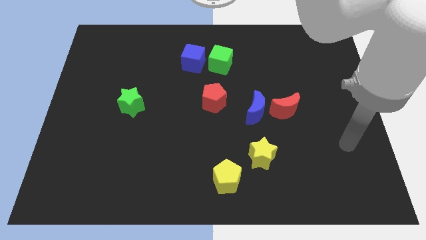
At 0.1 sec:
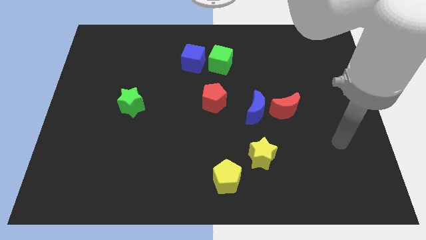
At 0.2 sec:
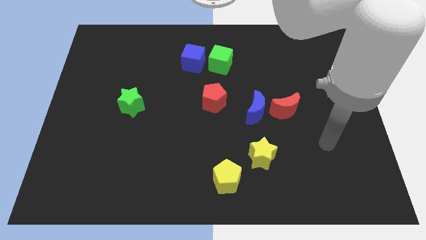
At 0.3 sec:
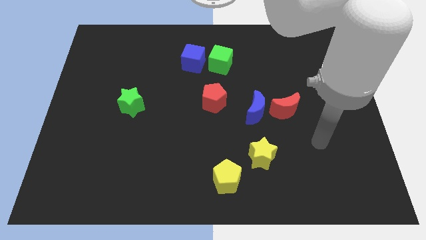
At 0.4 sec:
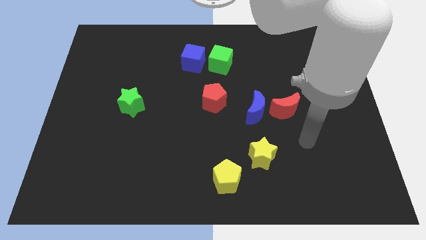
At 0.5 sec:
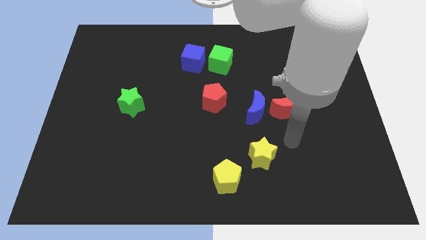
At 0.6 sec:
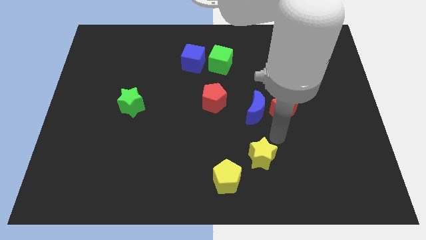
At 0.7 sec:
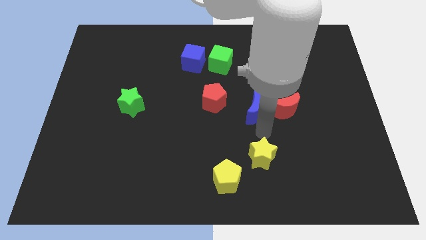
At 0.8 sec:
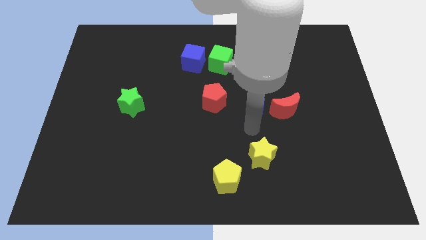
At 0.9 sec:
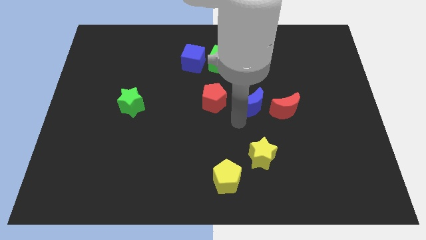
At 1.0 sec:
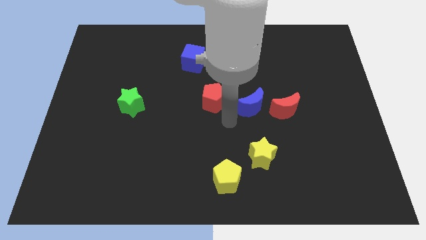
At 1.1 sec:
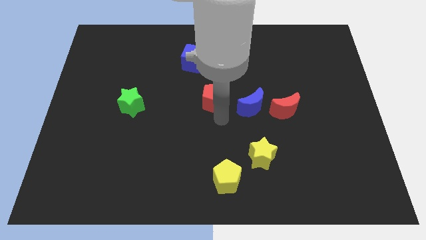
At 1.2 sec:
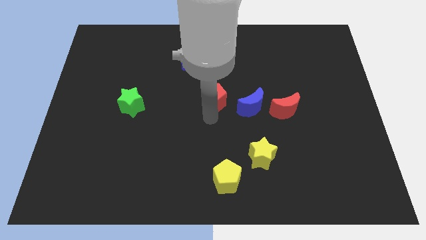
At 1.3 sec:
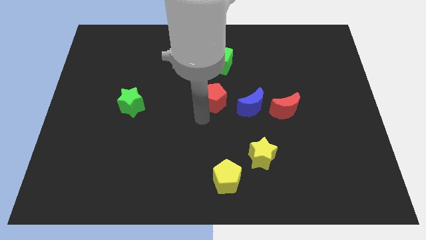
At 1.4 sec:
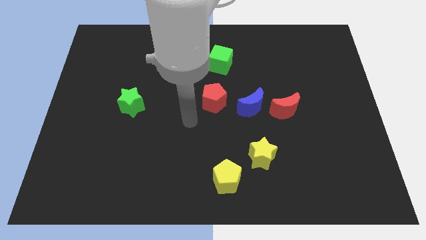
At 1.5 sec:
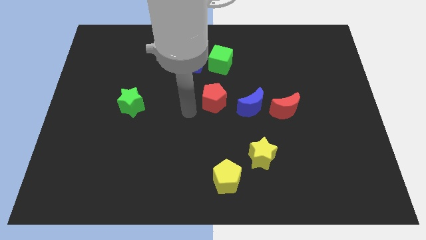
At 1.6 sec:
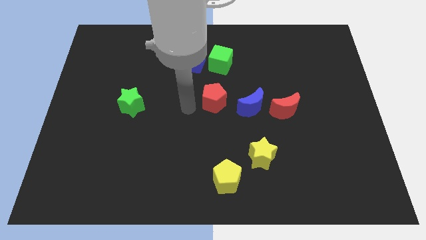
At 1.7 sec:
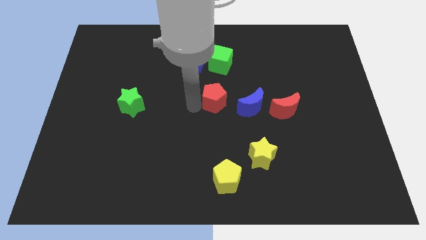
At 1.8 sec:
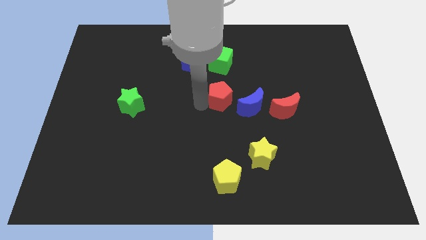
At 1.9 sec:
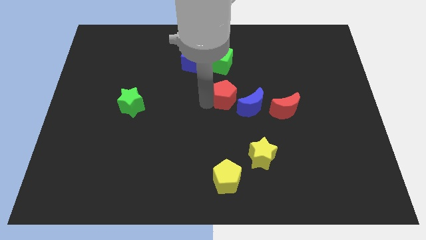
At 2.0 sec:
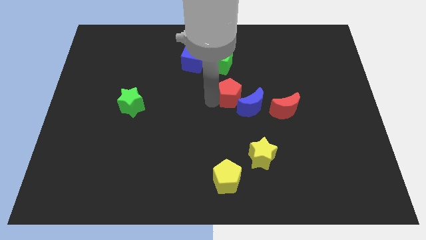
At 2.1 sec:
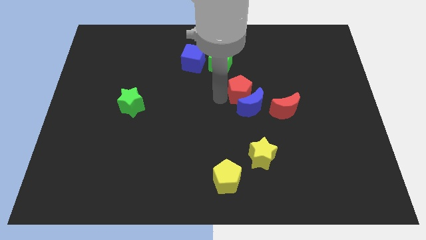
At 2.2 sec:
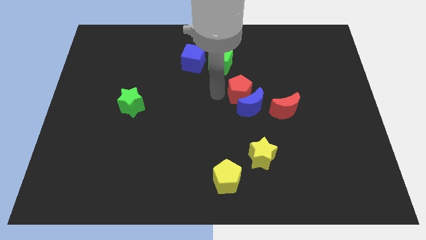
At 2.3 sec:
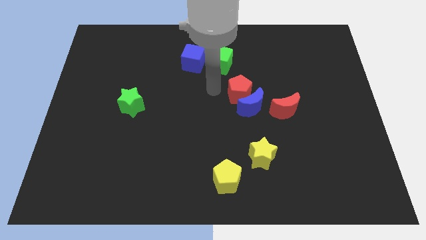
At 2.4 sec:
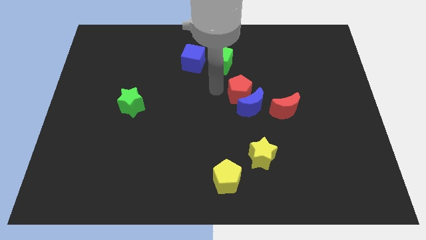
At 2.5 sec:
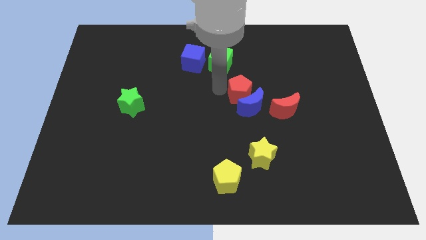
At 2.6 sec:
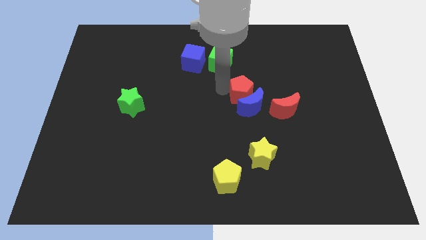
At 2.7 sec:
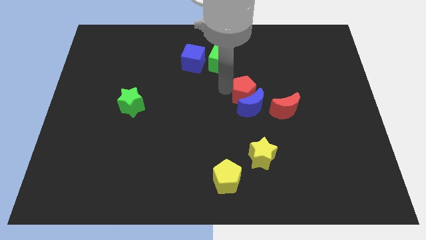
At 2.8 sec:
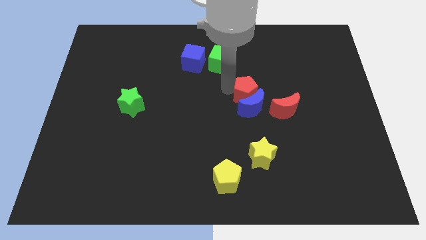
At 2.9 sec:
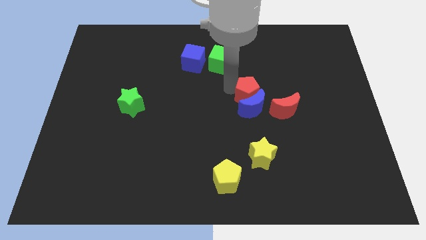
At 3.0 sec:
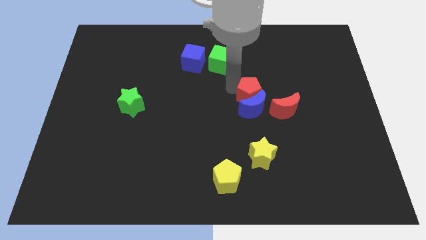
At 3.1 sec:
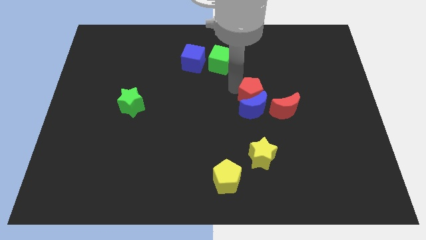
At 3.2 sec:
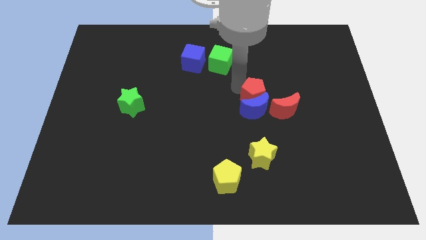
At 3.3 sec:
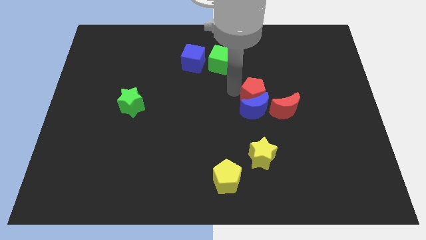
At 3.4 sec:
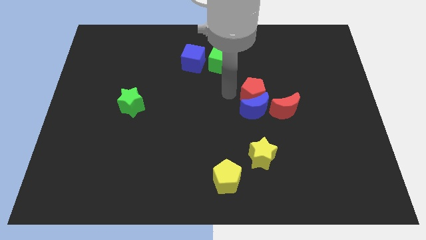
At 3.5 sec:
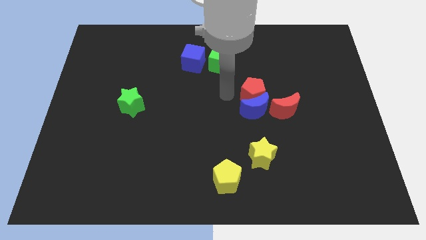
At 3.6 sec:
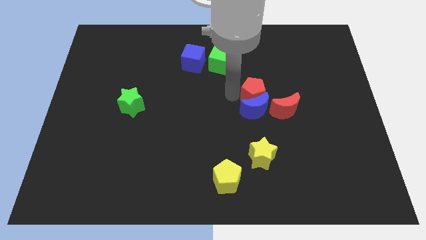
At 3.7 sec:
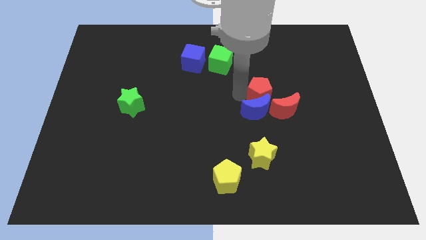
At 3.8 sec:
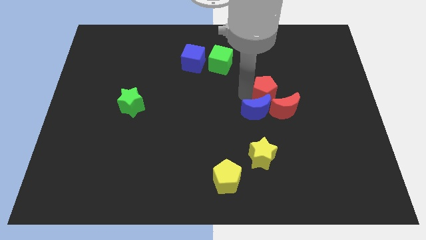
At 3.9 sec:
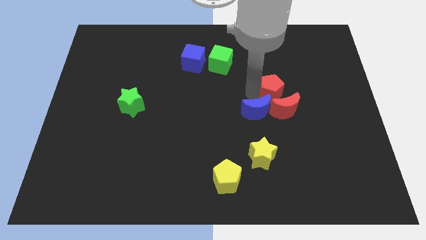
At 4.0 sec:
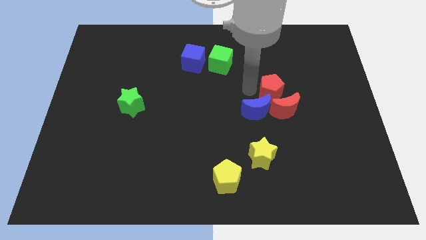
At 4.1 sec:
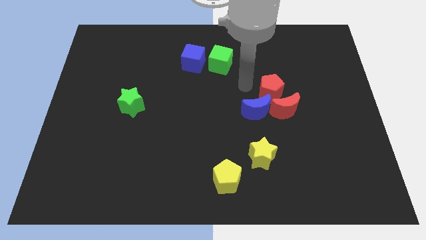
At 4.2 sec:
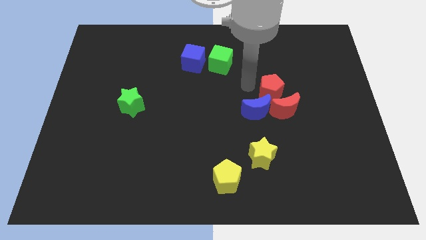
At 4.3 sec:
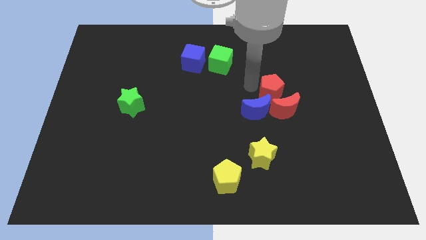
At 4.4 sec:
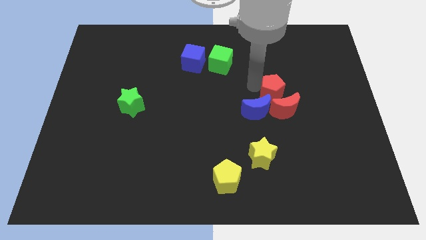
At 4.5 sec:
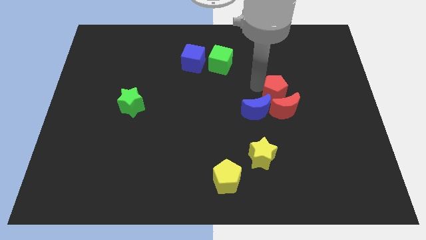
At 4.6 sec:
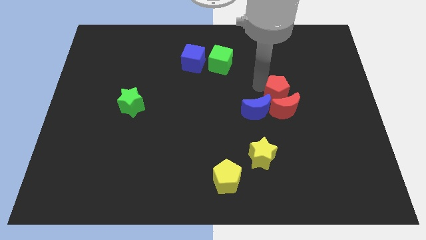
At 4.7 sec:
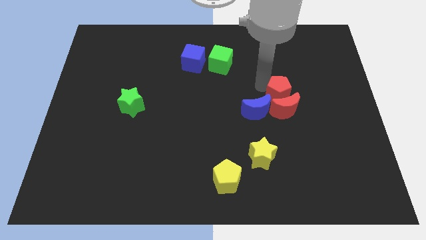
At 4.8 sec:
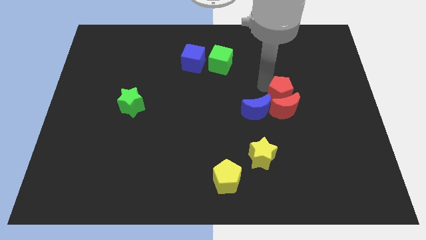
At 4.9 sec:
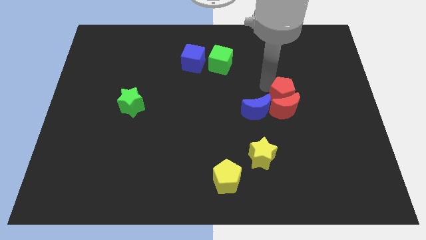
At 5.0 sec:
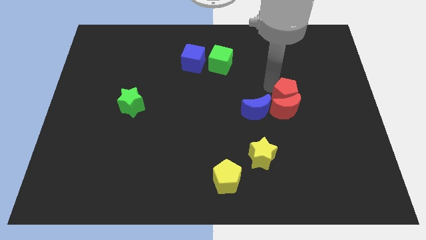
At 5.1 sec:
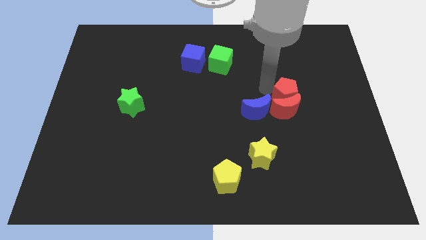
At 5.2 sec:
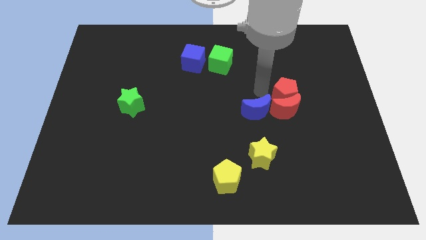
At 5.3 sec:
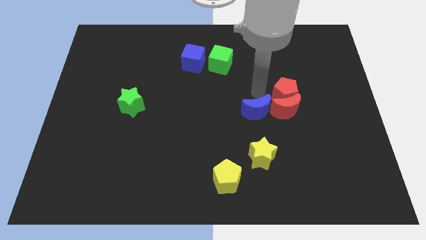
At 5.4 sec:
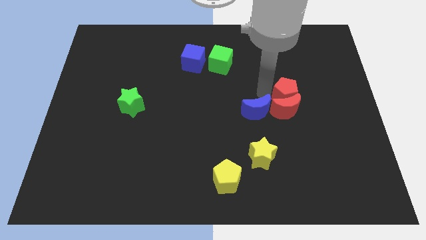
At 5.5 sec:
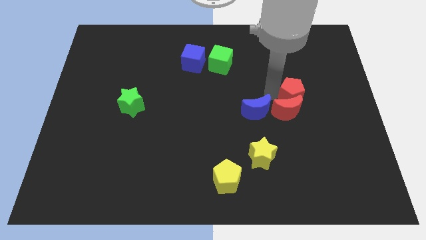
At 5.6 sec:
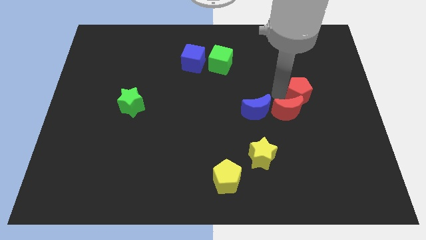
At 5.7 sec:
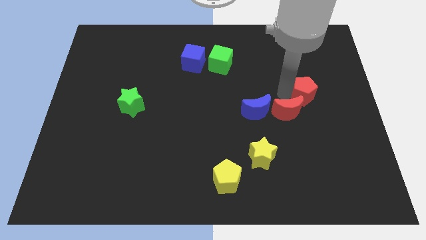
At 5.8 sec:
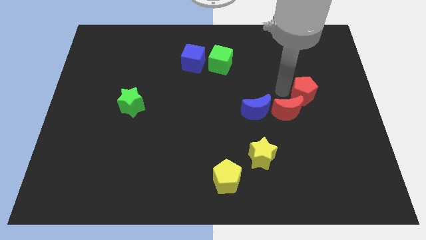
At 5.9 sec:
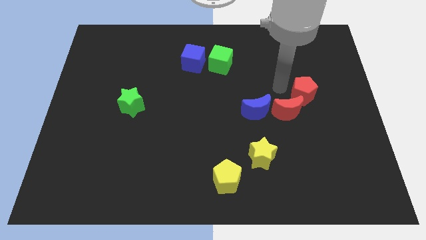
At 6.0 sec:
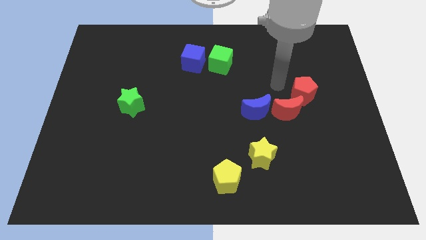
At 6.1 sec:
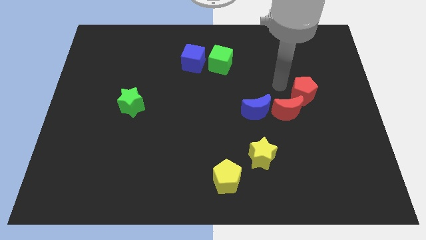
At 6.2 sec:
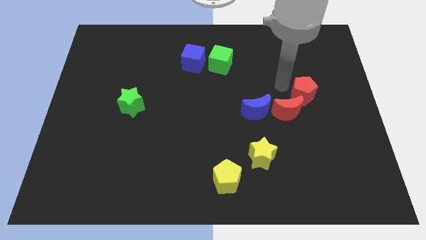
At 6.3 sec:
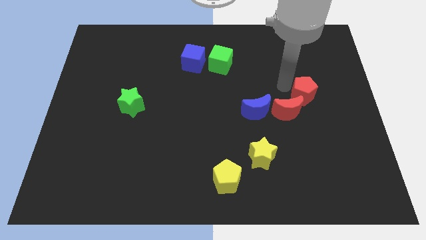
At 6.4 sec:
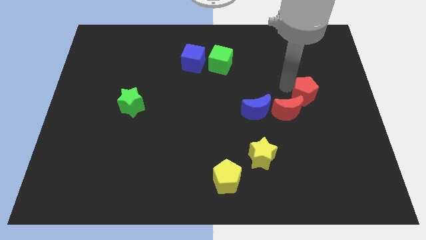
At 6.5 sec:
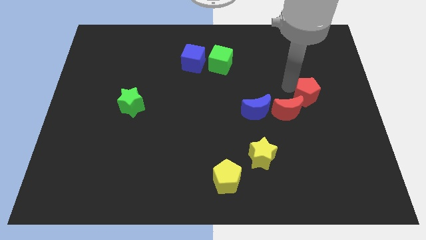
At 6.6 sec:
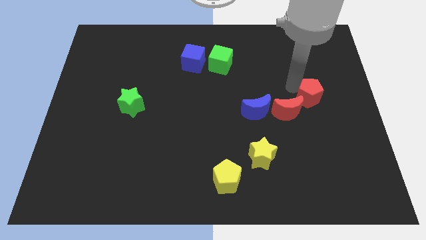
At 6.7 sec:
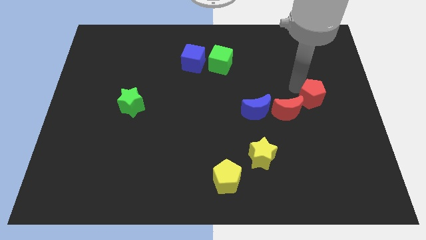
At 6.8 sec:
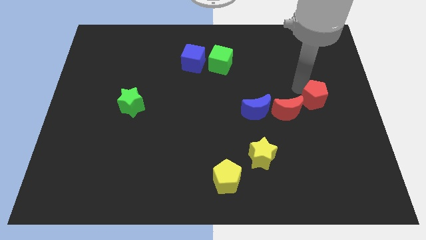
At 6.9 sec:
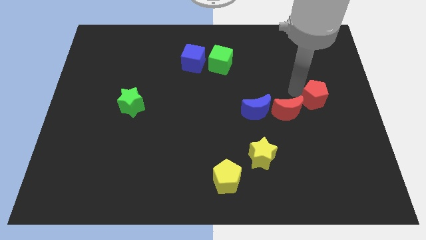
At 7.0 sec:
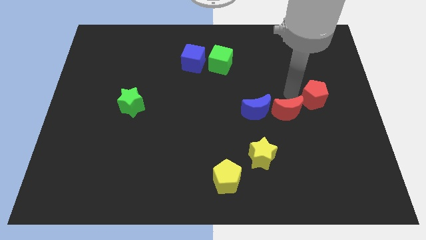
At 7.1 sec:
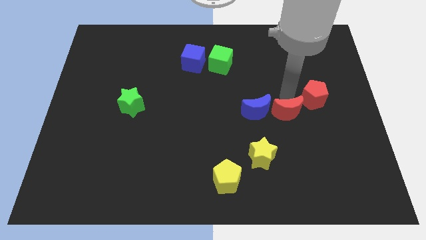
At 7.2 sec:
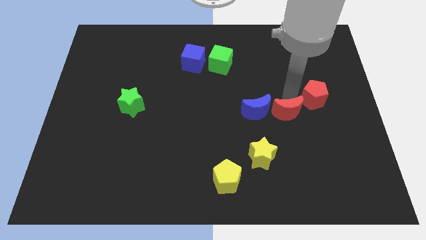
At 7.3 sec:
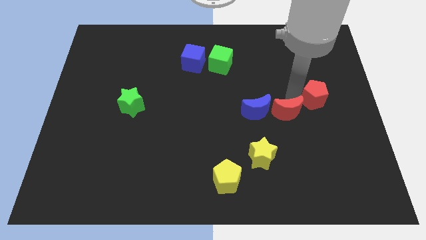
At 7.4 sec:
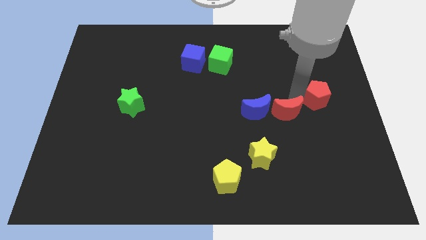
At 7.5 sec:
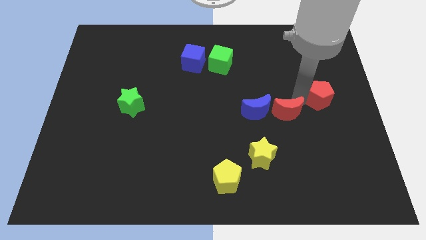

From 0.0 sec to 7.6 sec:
slide the red pentagon to the right side
